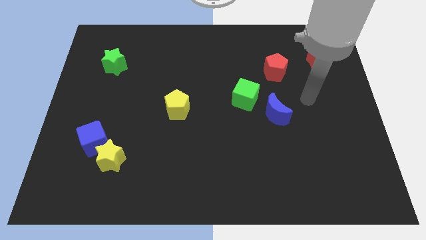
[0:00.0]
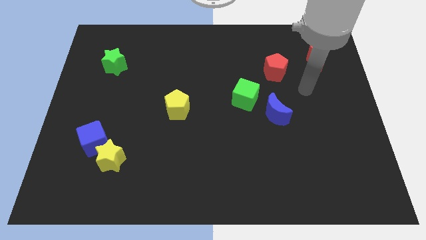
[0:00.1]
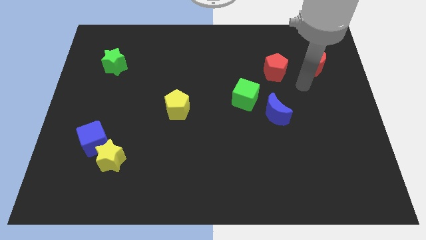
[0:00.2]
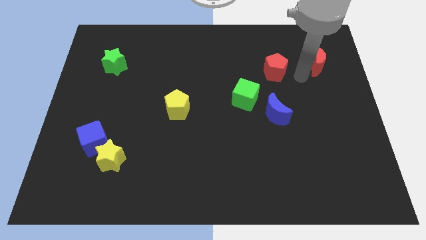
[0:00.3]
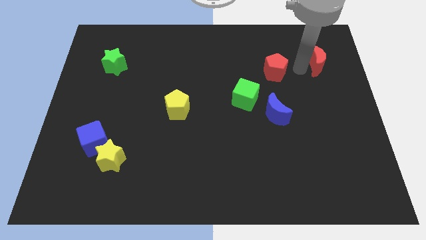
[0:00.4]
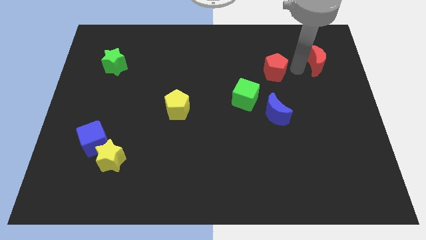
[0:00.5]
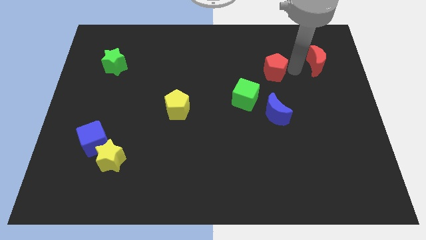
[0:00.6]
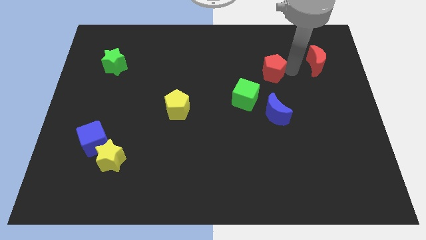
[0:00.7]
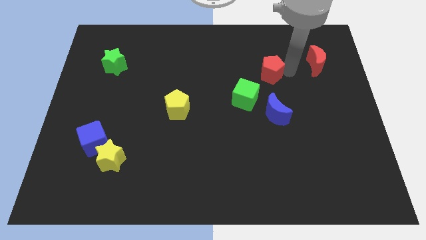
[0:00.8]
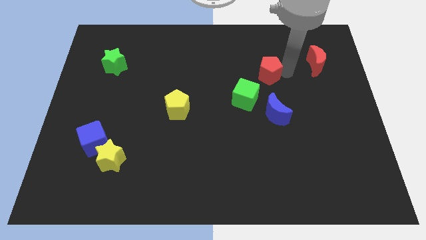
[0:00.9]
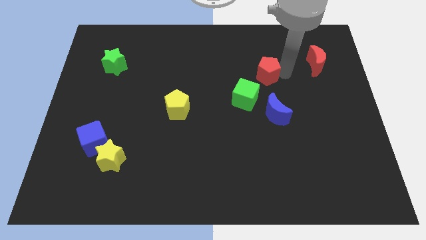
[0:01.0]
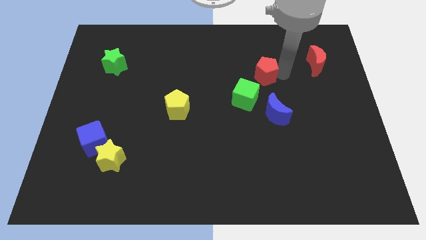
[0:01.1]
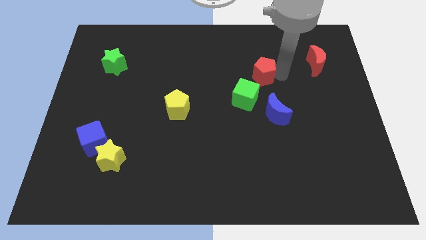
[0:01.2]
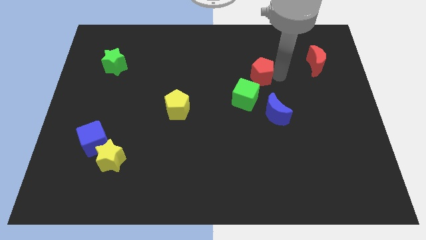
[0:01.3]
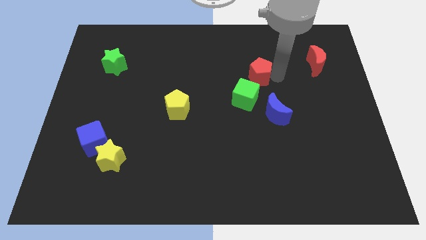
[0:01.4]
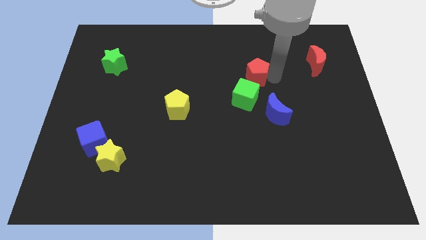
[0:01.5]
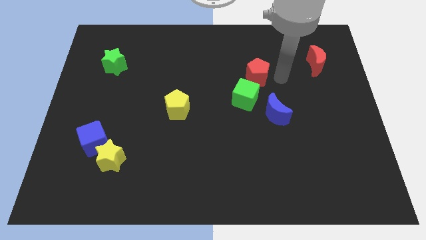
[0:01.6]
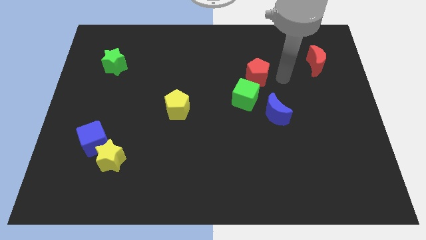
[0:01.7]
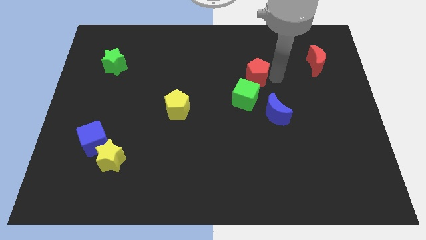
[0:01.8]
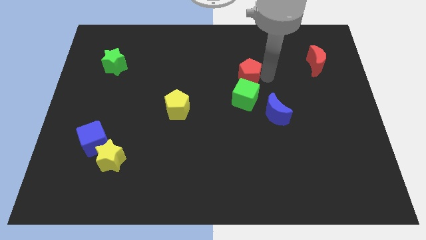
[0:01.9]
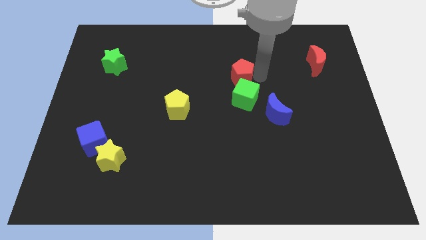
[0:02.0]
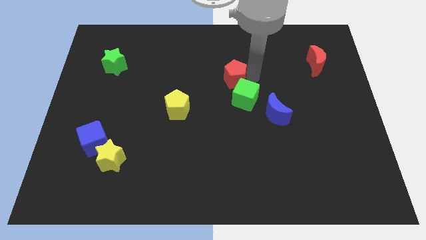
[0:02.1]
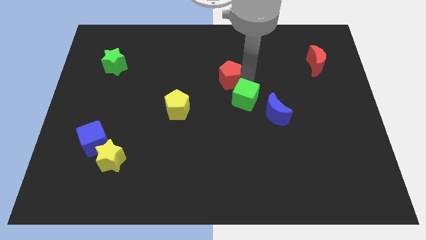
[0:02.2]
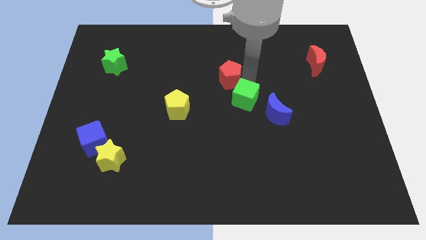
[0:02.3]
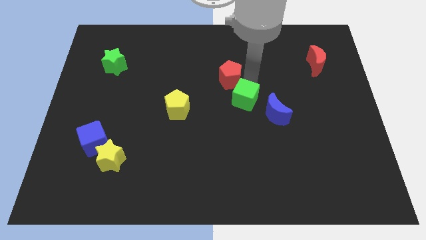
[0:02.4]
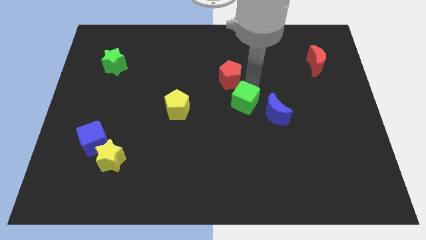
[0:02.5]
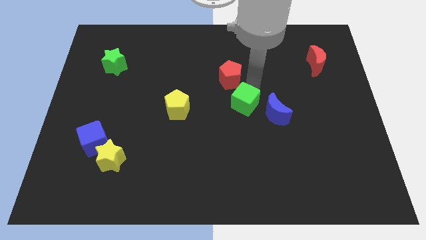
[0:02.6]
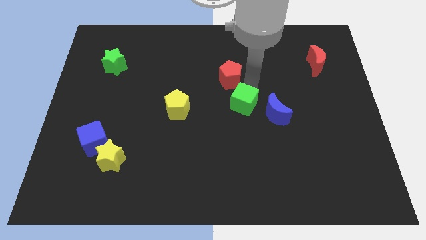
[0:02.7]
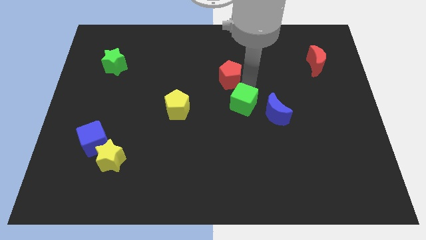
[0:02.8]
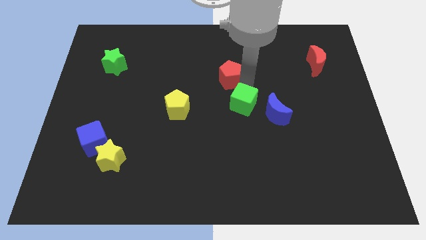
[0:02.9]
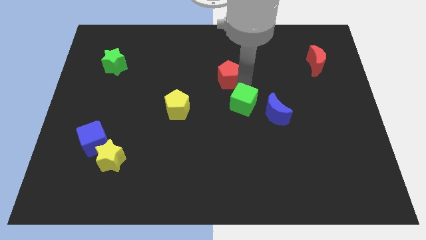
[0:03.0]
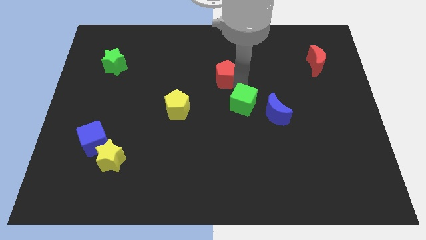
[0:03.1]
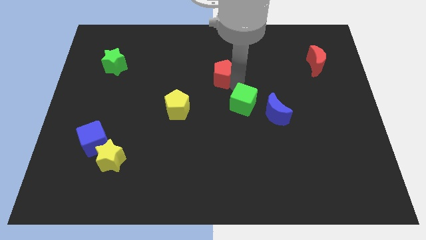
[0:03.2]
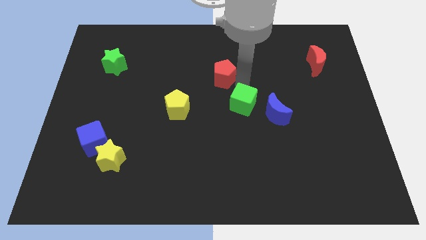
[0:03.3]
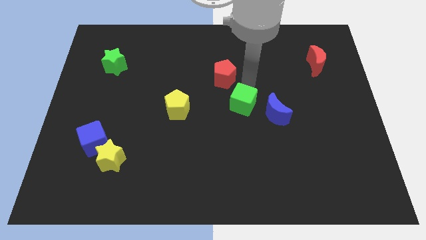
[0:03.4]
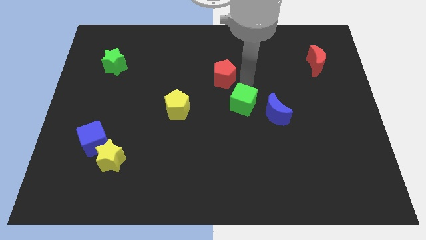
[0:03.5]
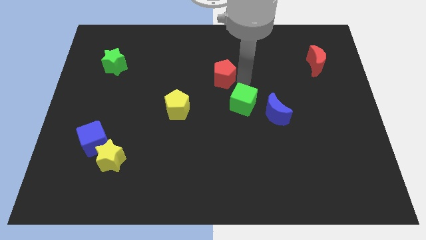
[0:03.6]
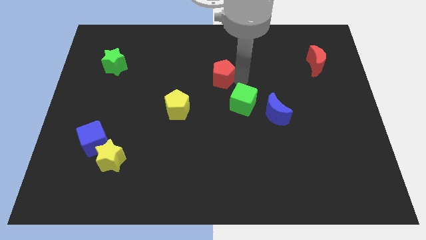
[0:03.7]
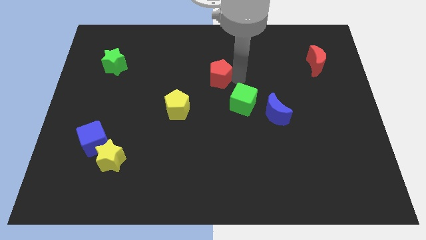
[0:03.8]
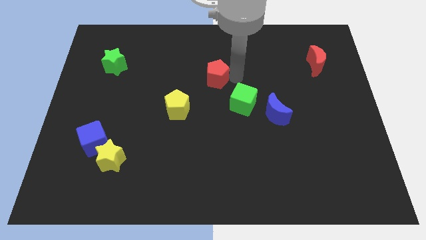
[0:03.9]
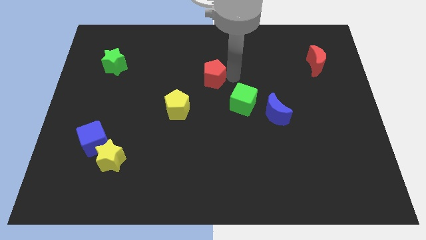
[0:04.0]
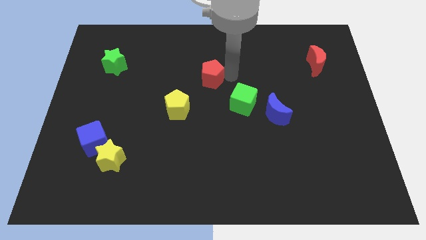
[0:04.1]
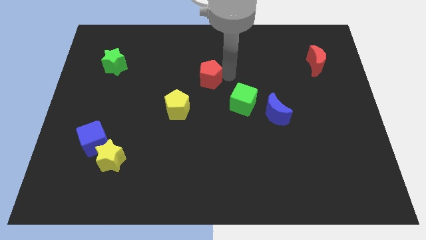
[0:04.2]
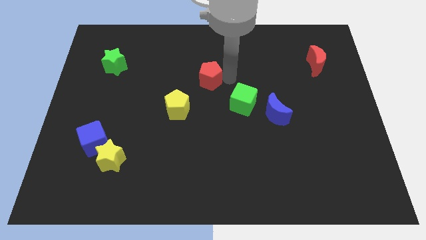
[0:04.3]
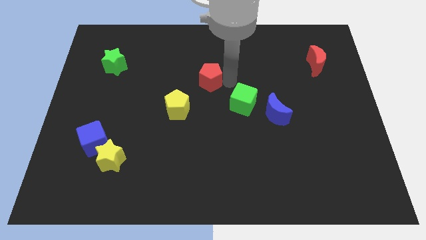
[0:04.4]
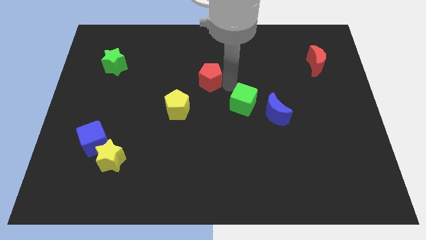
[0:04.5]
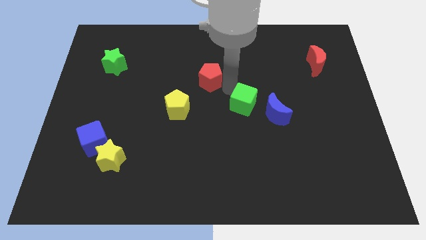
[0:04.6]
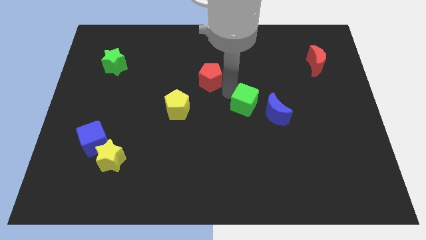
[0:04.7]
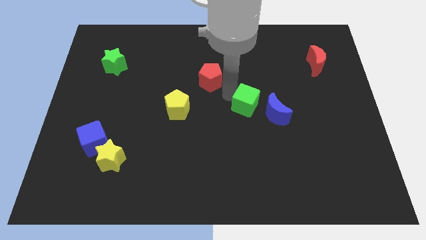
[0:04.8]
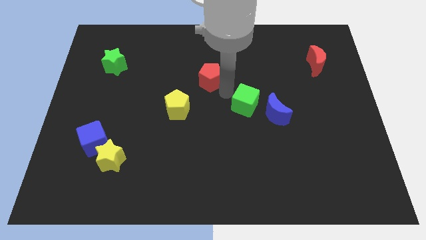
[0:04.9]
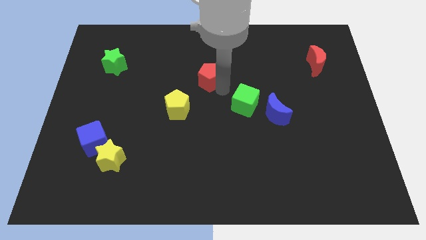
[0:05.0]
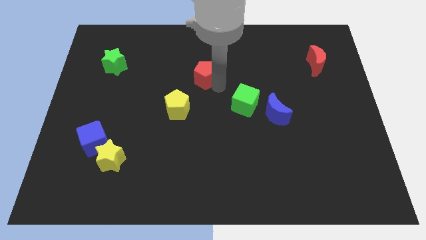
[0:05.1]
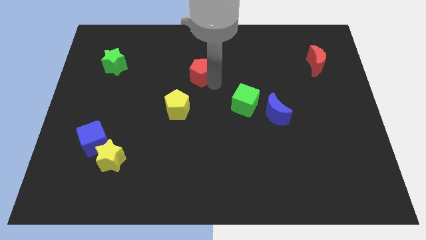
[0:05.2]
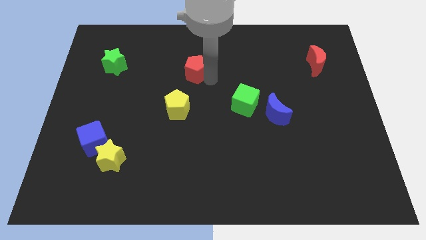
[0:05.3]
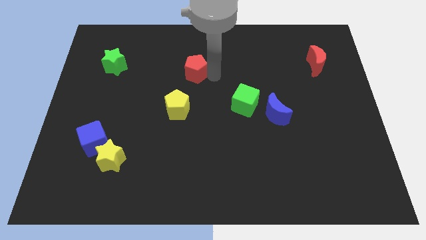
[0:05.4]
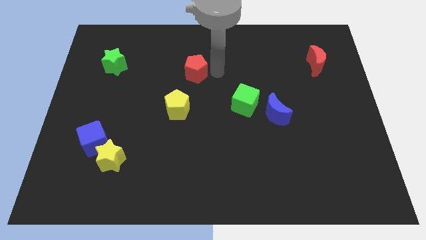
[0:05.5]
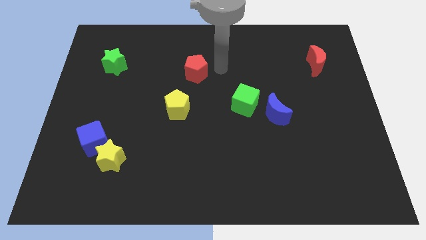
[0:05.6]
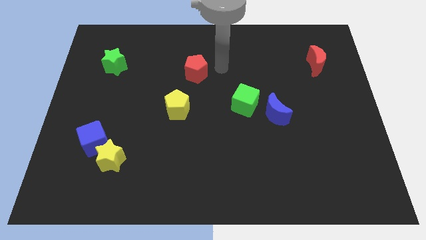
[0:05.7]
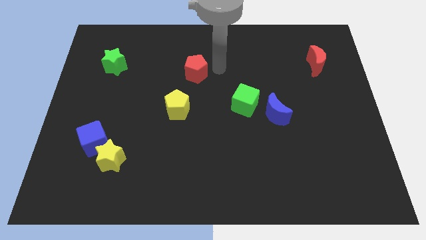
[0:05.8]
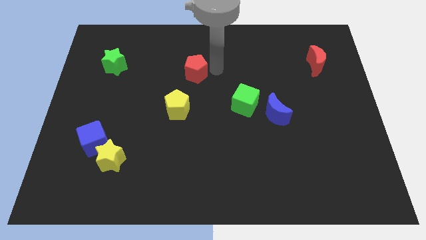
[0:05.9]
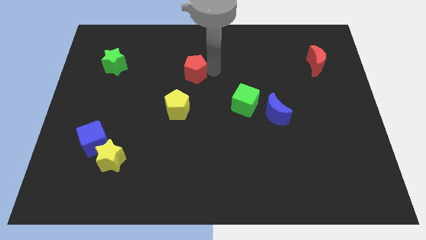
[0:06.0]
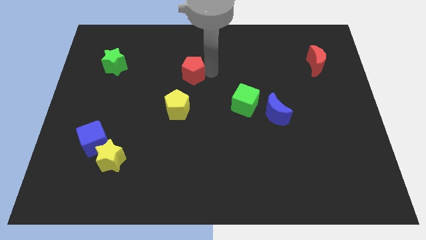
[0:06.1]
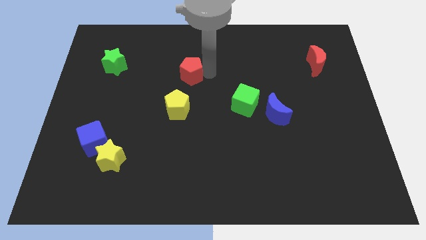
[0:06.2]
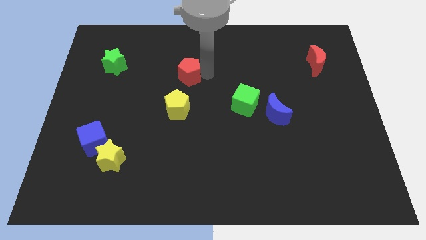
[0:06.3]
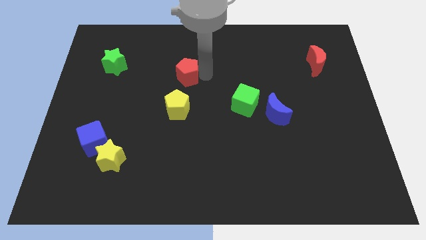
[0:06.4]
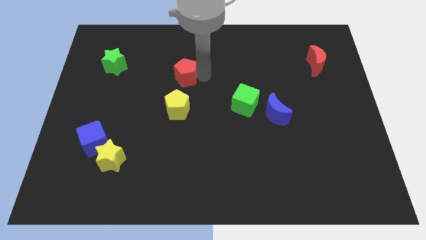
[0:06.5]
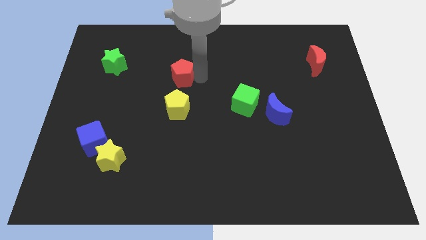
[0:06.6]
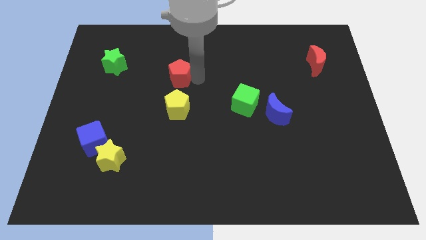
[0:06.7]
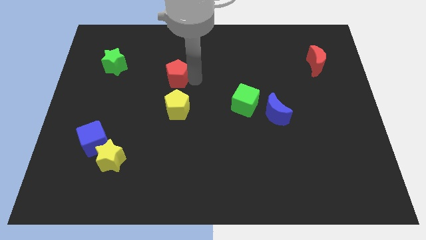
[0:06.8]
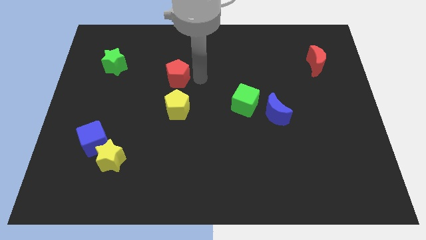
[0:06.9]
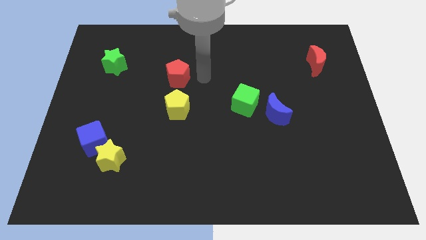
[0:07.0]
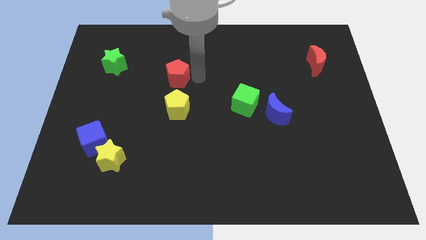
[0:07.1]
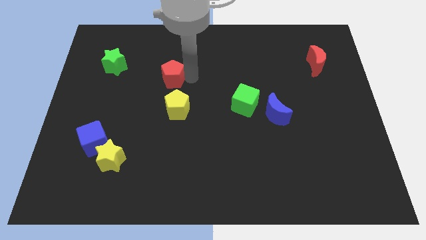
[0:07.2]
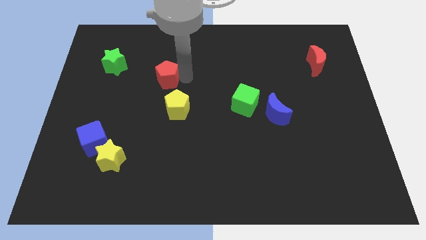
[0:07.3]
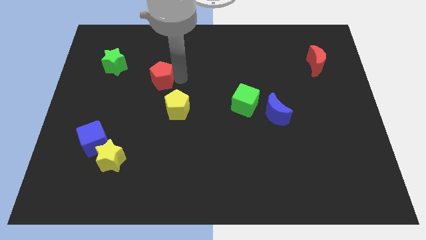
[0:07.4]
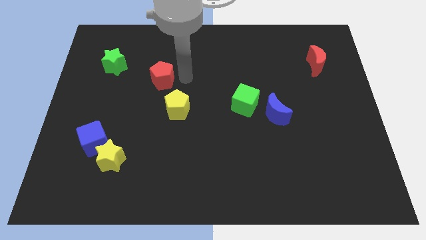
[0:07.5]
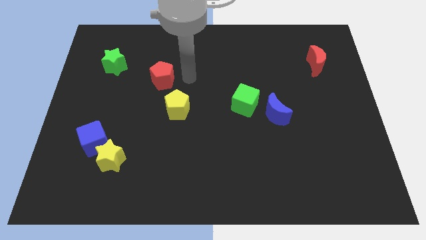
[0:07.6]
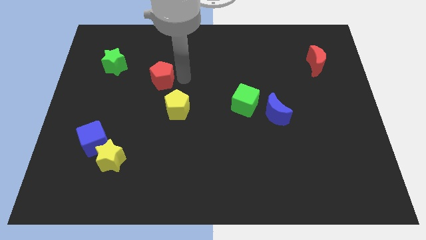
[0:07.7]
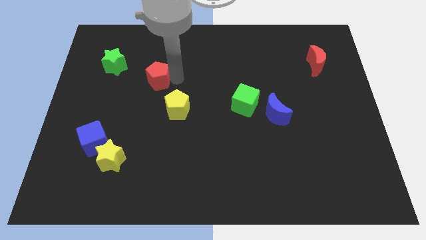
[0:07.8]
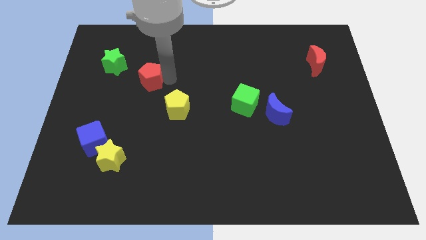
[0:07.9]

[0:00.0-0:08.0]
move the red pentagon to the bottom right of the green star
